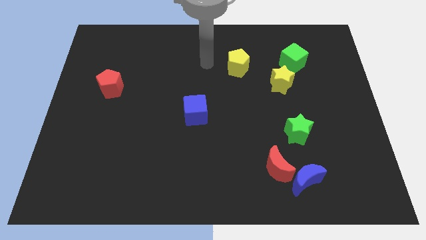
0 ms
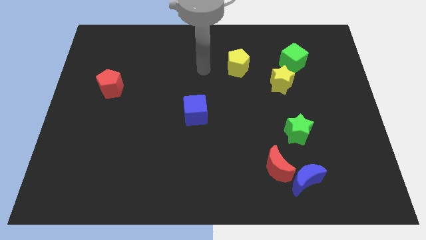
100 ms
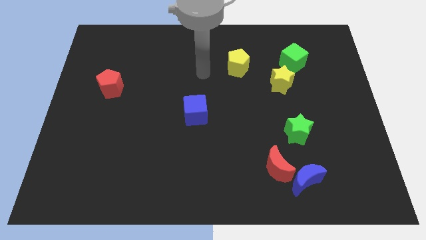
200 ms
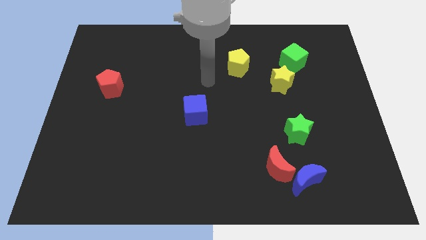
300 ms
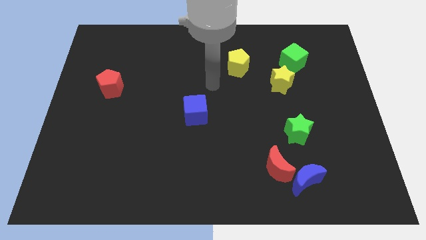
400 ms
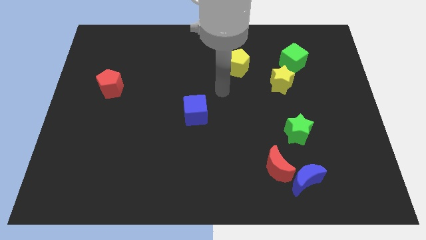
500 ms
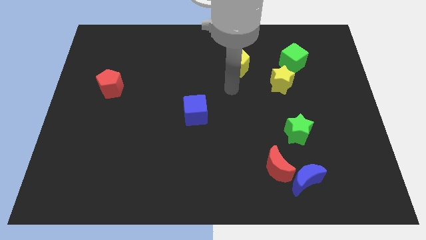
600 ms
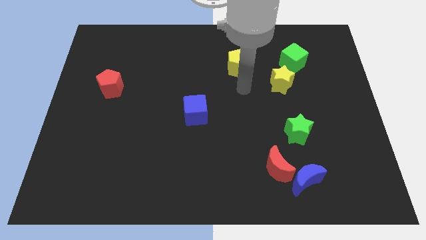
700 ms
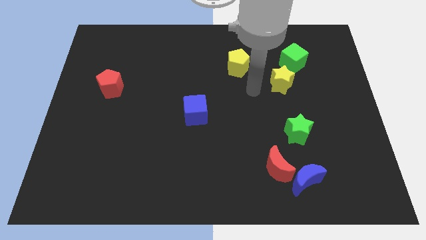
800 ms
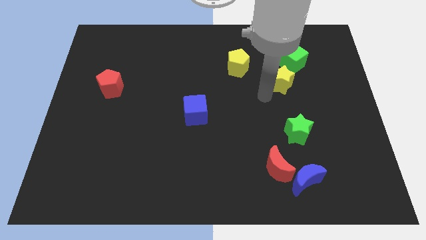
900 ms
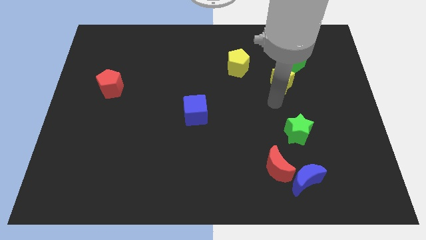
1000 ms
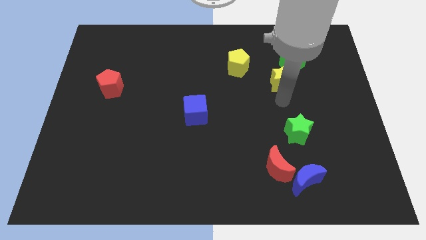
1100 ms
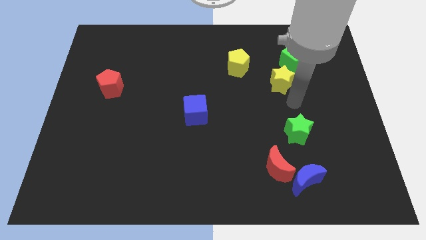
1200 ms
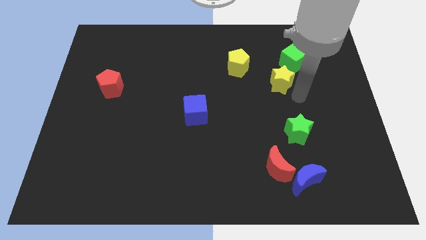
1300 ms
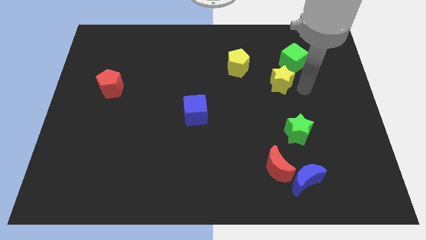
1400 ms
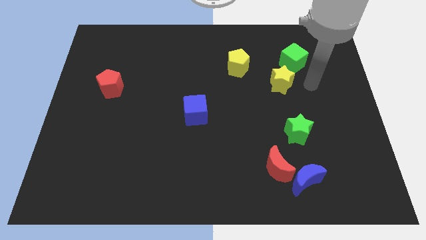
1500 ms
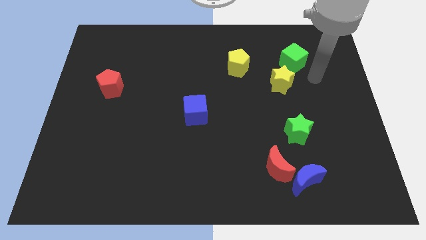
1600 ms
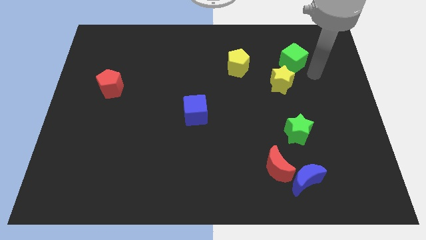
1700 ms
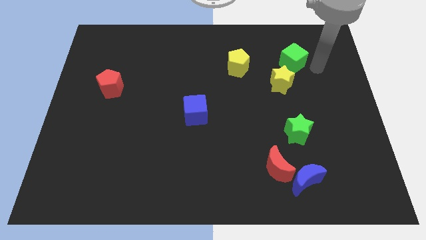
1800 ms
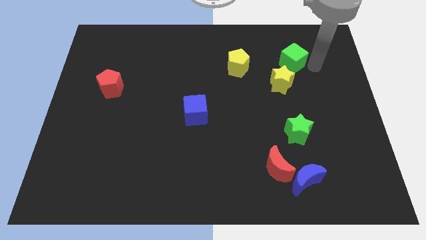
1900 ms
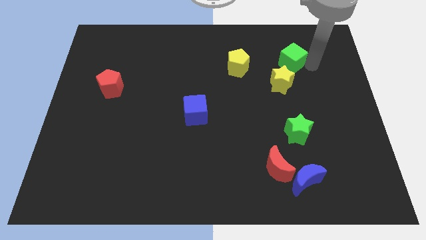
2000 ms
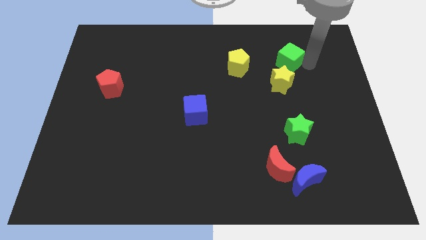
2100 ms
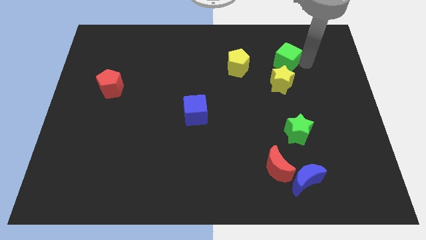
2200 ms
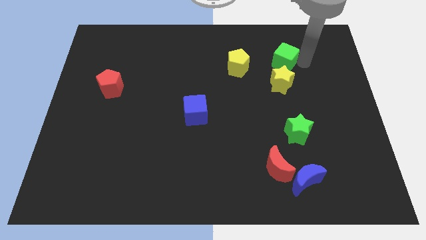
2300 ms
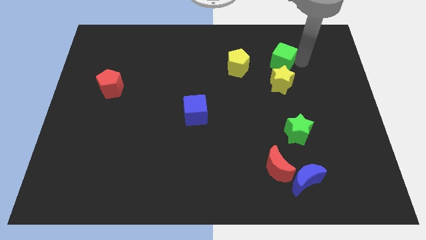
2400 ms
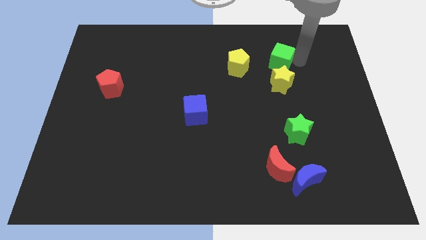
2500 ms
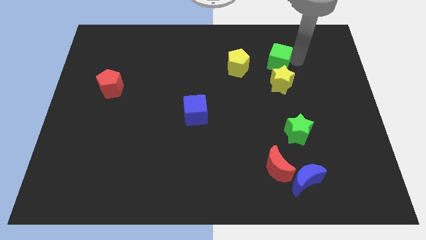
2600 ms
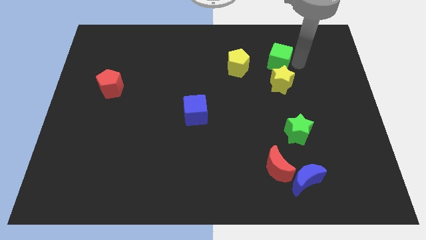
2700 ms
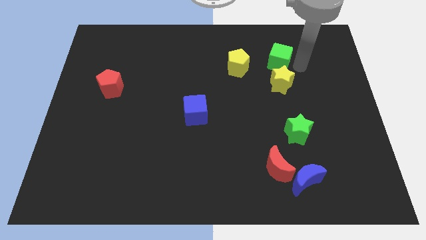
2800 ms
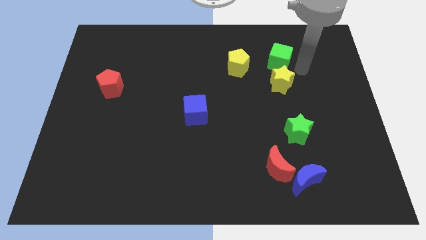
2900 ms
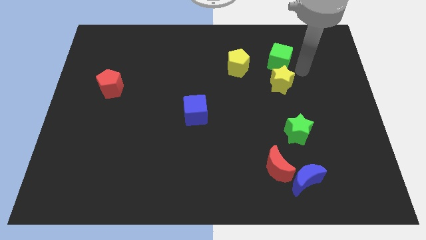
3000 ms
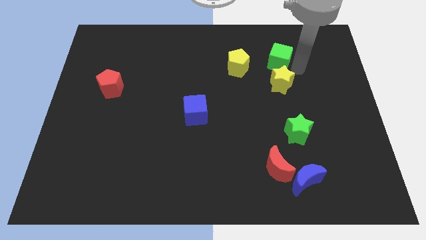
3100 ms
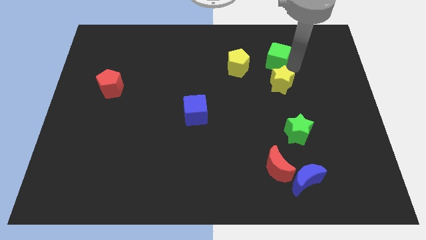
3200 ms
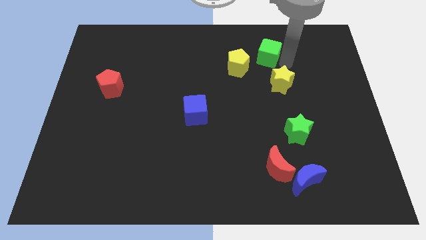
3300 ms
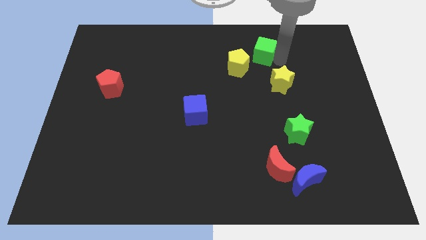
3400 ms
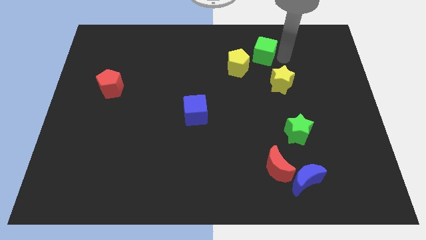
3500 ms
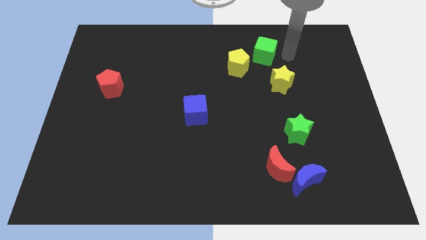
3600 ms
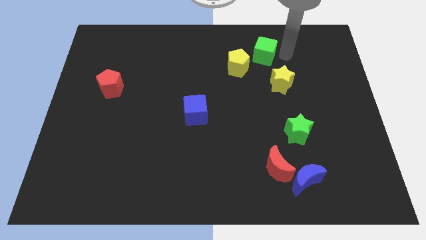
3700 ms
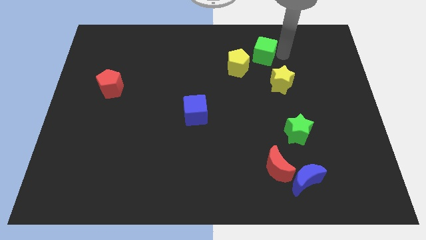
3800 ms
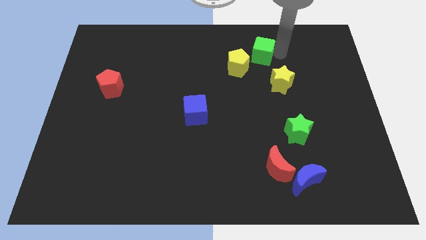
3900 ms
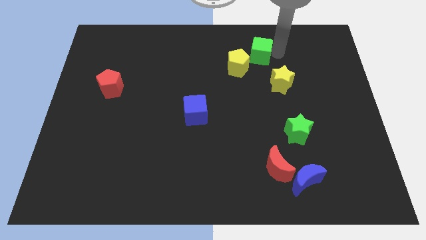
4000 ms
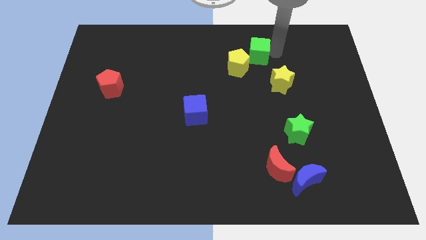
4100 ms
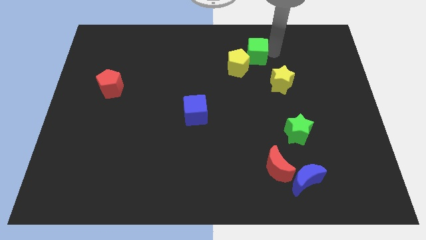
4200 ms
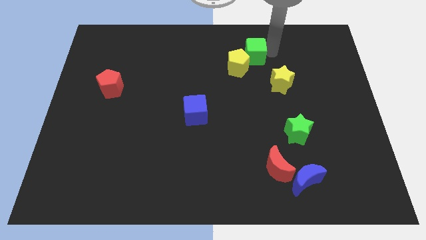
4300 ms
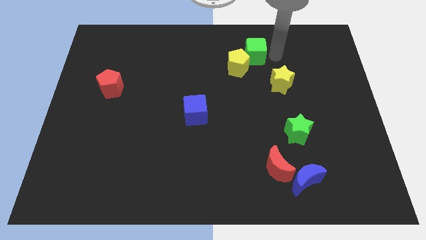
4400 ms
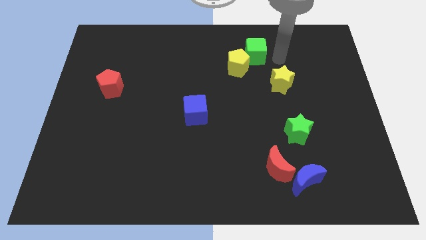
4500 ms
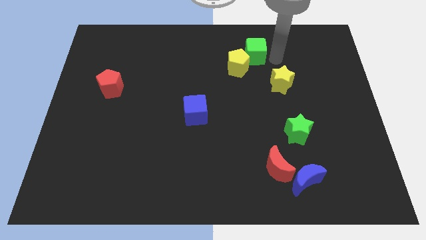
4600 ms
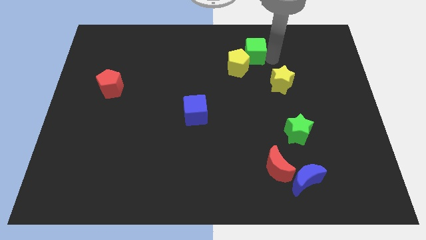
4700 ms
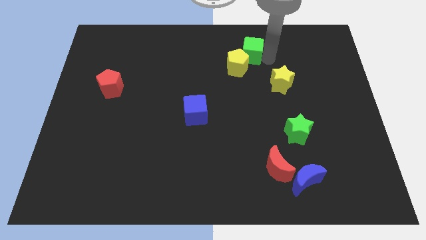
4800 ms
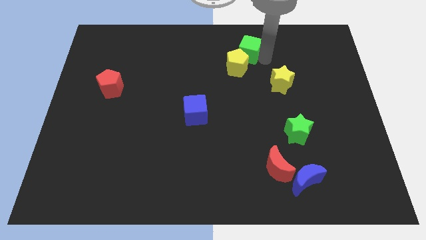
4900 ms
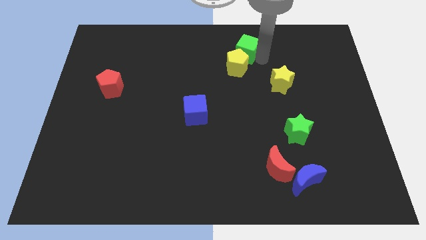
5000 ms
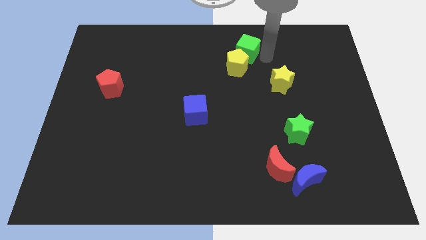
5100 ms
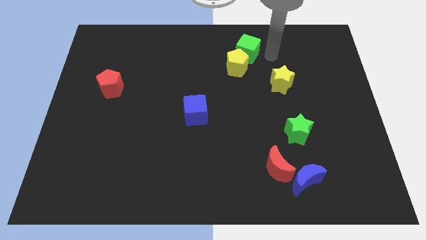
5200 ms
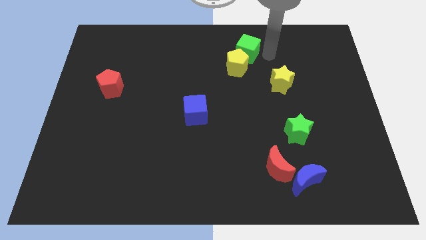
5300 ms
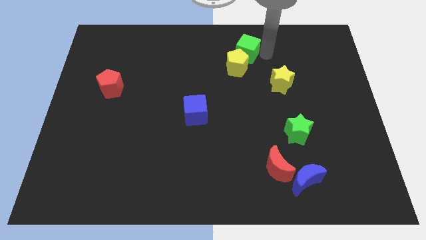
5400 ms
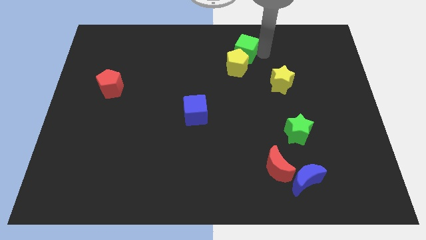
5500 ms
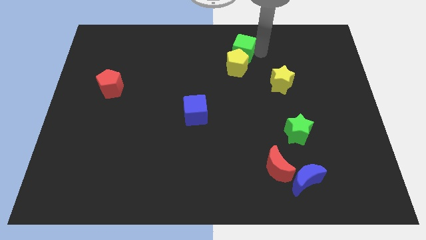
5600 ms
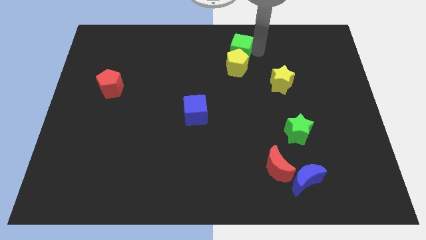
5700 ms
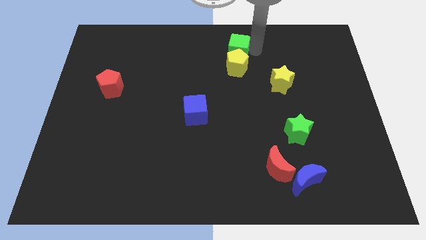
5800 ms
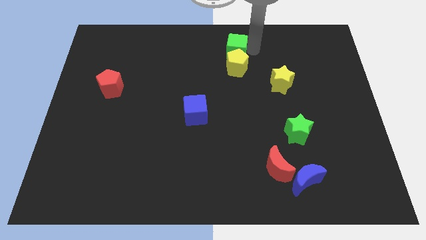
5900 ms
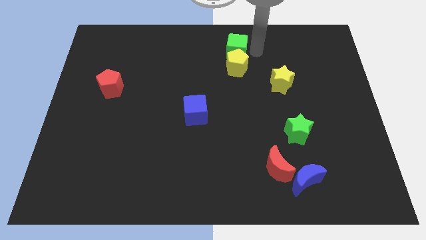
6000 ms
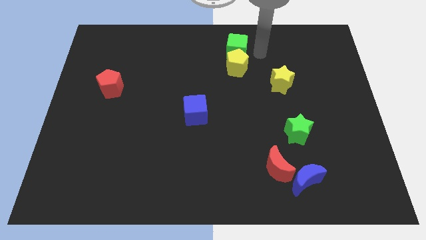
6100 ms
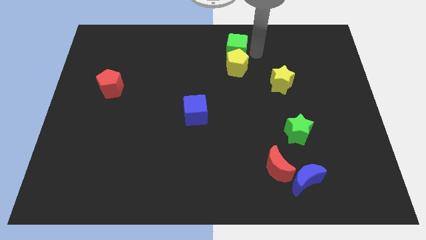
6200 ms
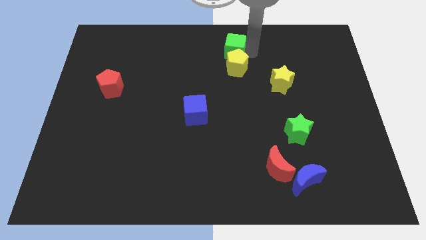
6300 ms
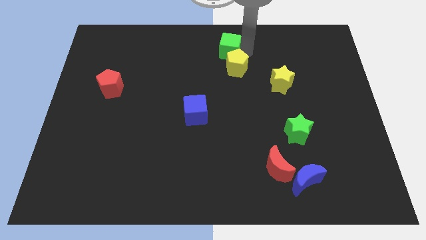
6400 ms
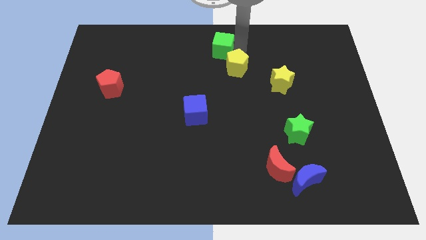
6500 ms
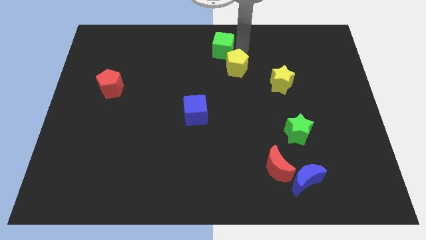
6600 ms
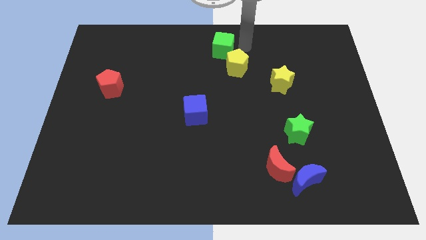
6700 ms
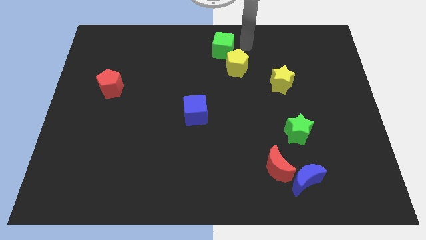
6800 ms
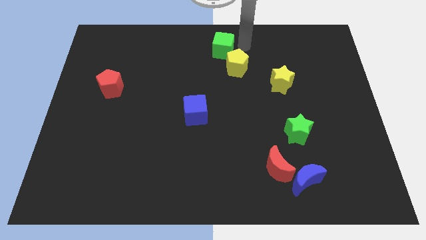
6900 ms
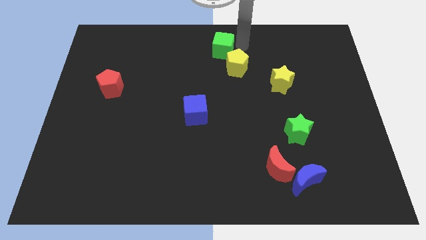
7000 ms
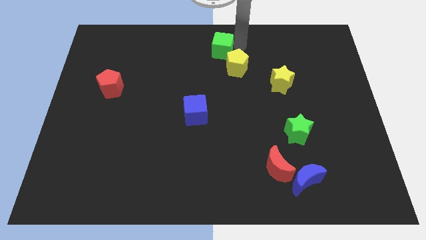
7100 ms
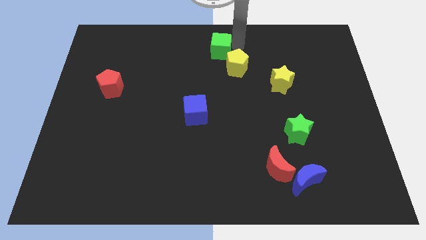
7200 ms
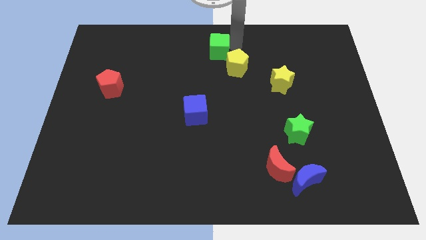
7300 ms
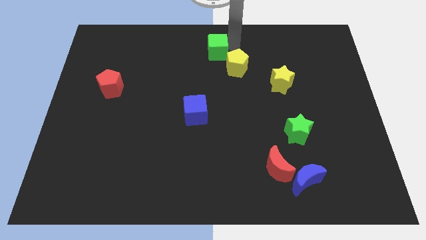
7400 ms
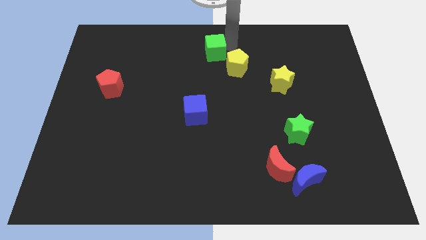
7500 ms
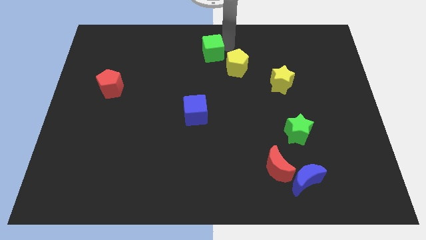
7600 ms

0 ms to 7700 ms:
push the green cube left

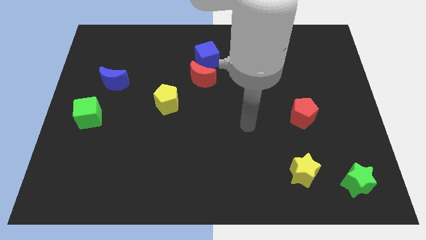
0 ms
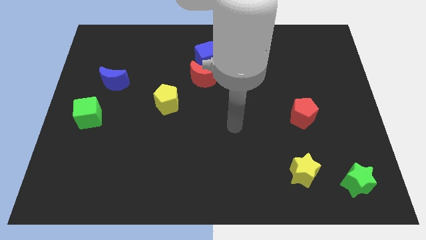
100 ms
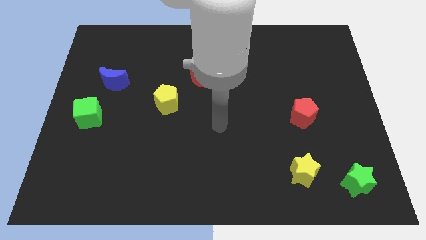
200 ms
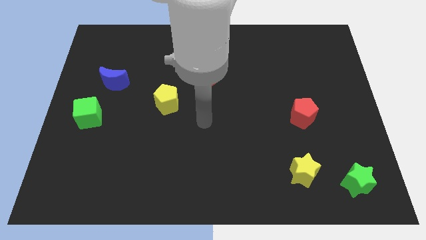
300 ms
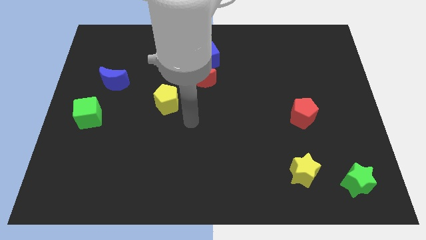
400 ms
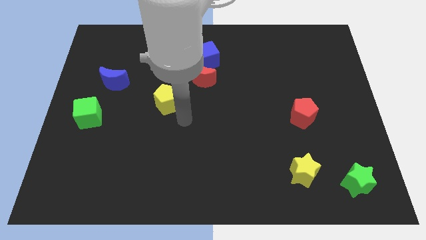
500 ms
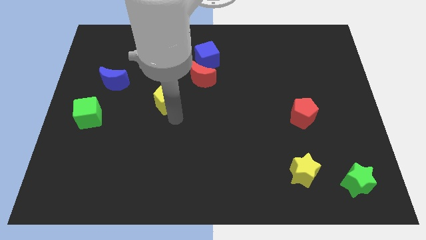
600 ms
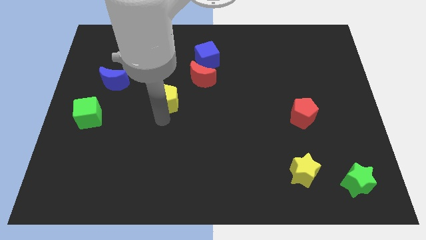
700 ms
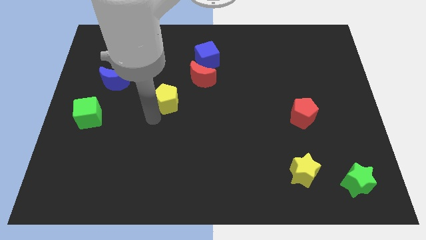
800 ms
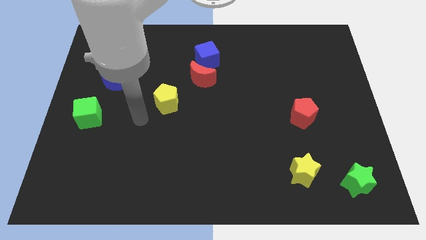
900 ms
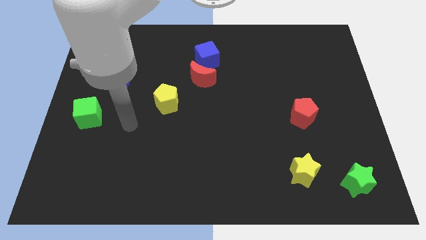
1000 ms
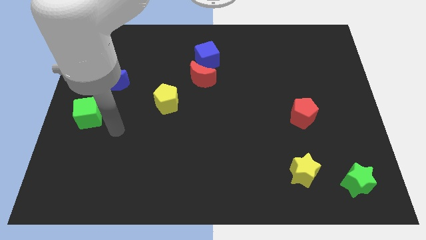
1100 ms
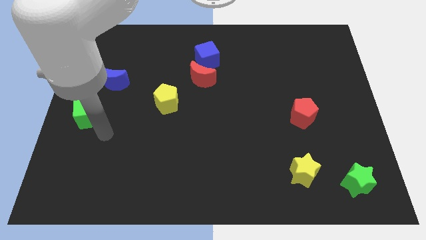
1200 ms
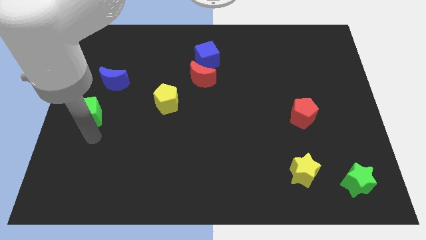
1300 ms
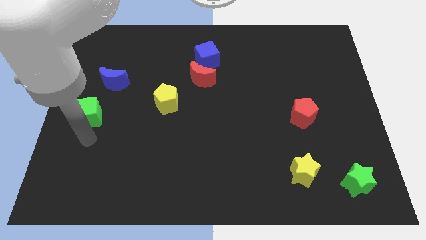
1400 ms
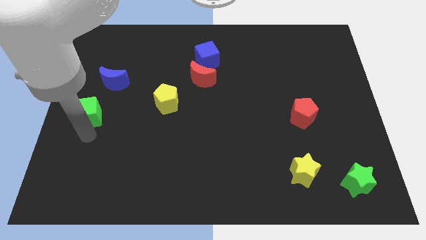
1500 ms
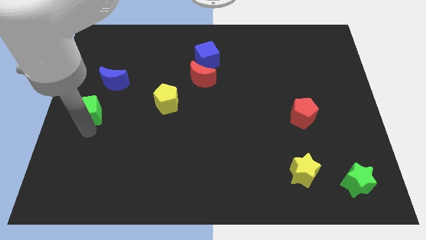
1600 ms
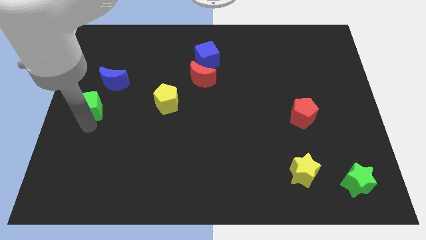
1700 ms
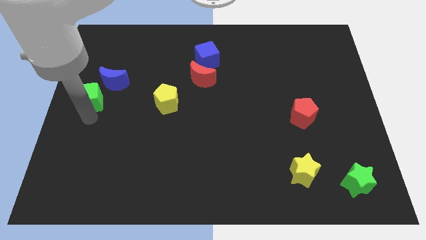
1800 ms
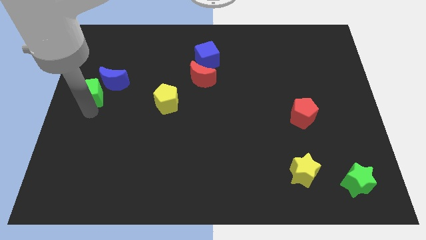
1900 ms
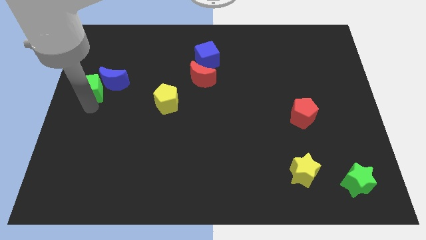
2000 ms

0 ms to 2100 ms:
slightly move the green cube up
